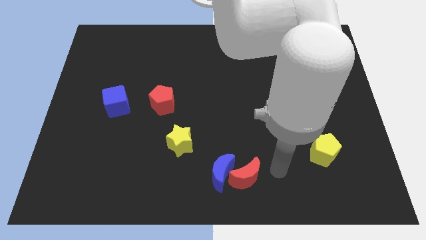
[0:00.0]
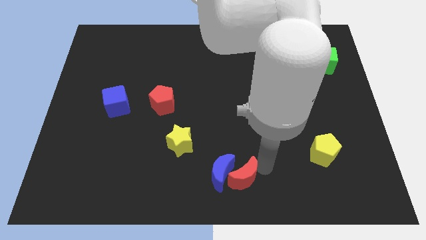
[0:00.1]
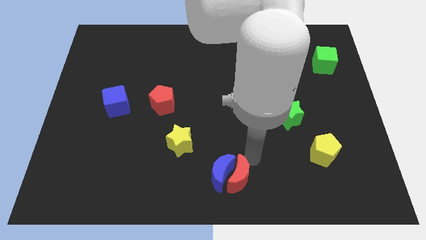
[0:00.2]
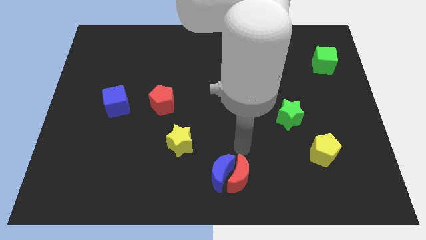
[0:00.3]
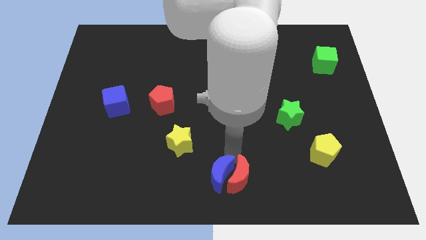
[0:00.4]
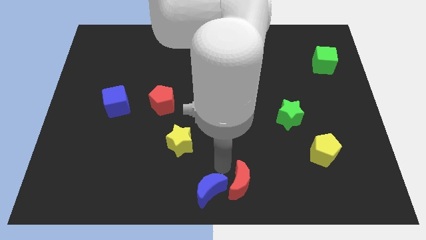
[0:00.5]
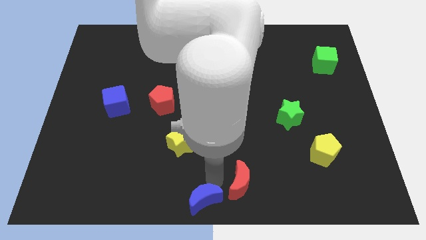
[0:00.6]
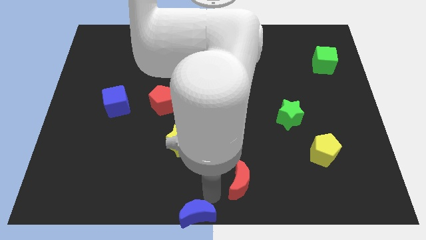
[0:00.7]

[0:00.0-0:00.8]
move the red moon away from the blue moon

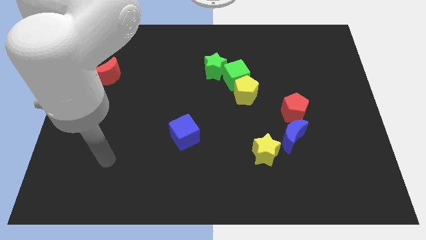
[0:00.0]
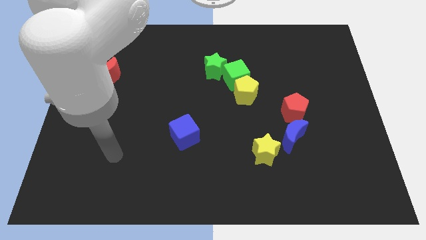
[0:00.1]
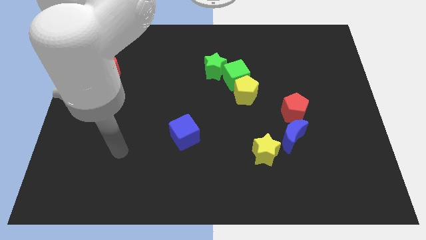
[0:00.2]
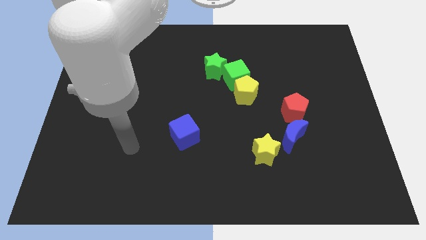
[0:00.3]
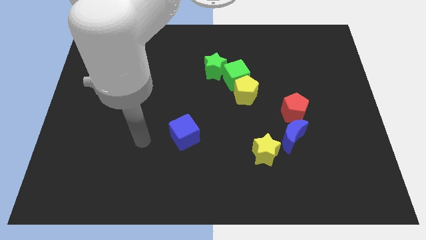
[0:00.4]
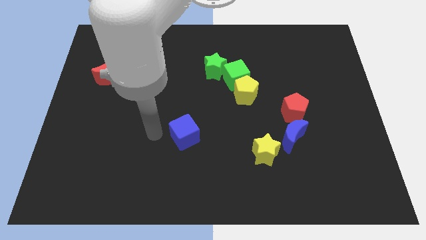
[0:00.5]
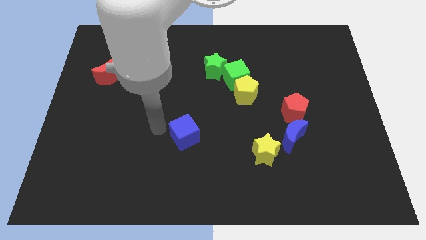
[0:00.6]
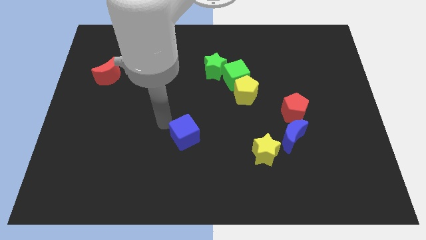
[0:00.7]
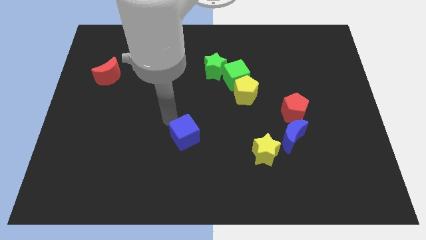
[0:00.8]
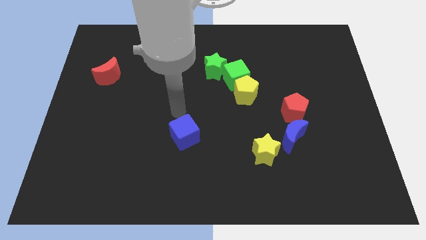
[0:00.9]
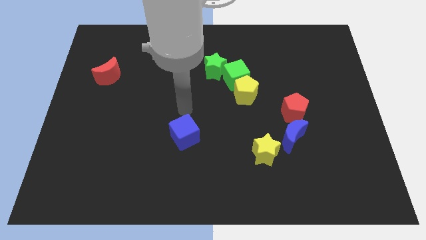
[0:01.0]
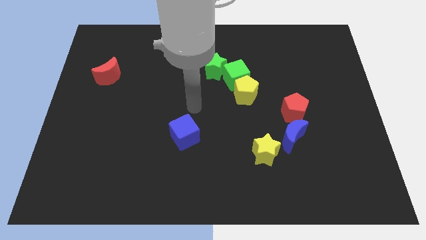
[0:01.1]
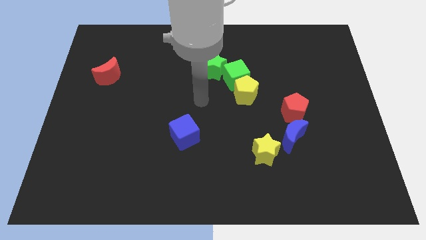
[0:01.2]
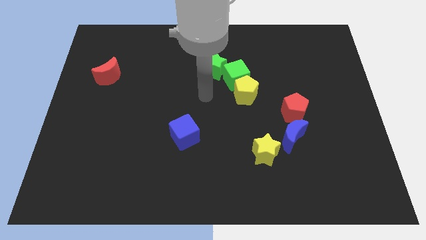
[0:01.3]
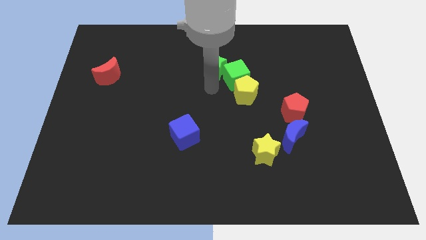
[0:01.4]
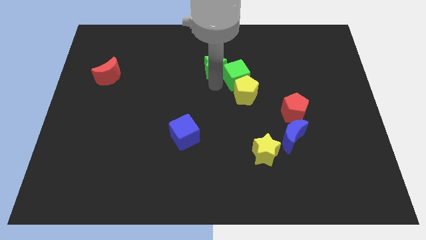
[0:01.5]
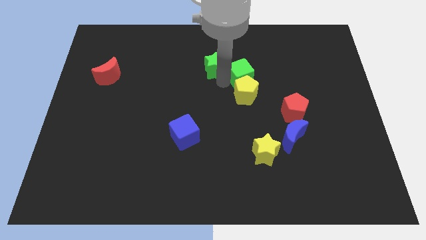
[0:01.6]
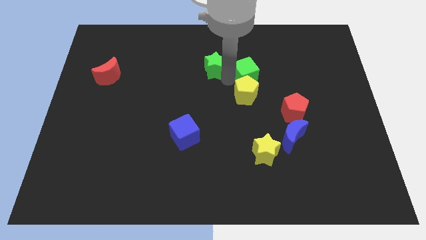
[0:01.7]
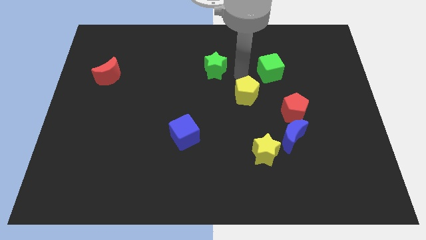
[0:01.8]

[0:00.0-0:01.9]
move the yellow pentagon away from the green cube

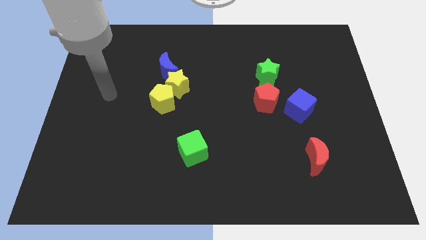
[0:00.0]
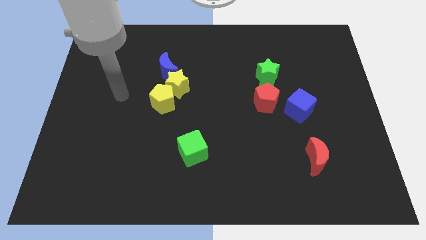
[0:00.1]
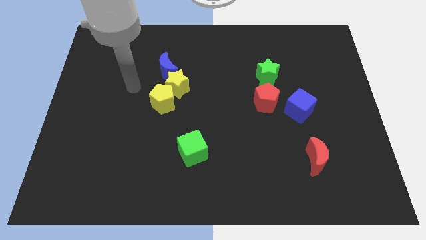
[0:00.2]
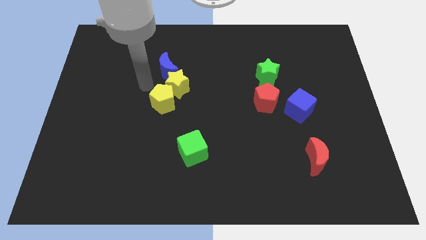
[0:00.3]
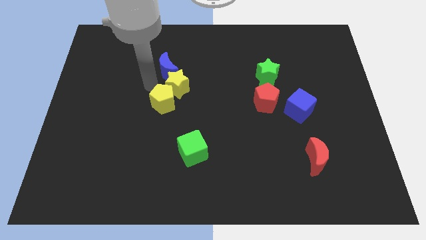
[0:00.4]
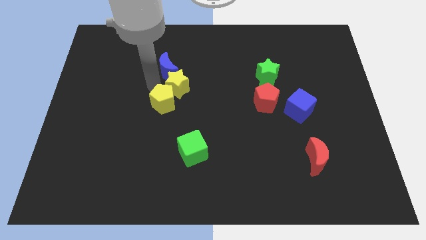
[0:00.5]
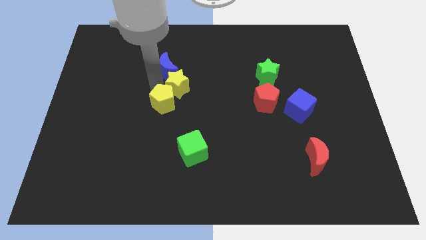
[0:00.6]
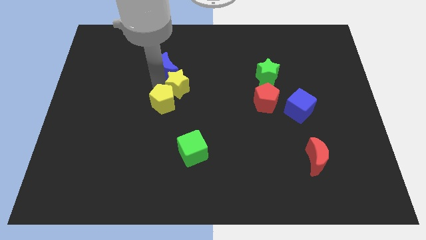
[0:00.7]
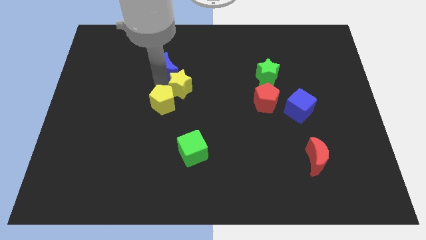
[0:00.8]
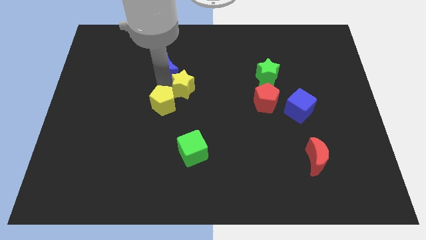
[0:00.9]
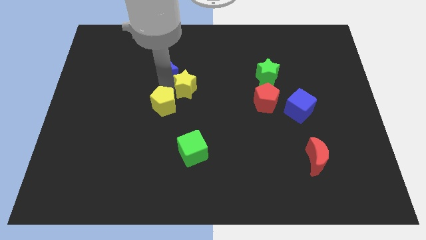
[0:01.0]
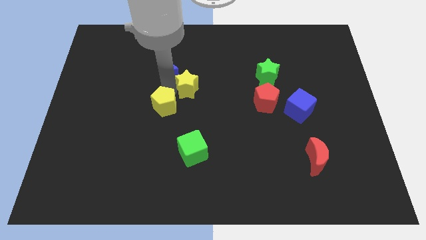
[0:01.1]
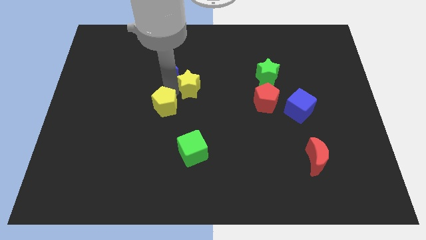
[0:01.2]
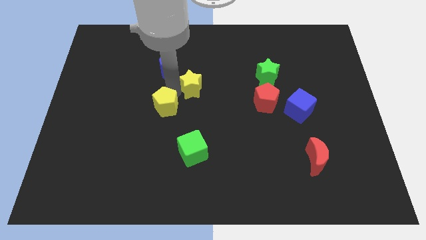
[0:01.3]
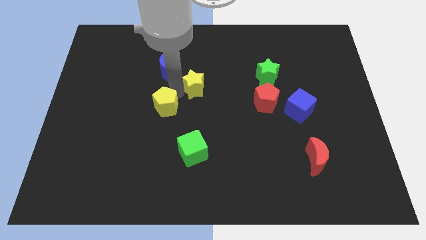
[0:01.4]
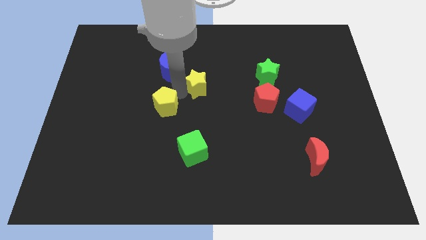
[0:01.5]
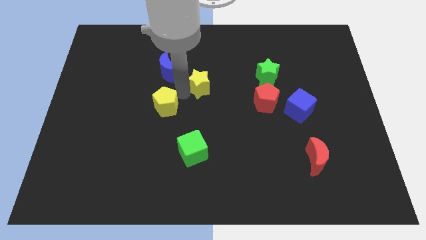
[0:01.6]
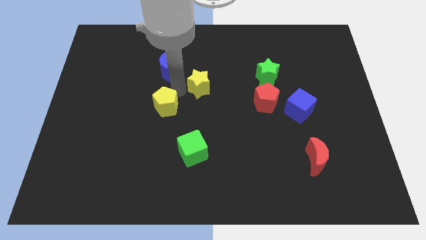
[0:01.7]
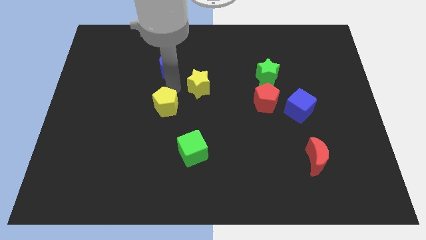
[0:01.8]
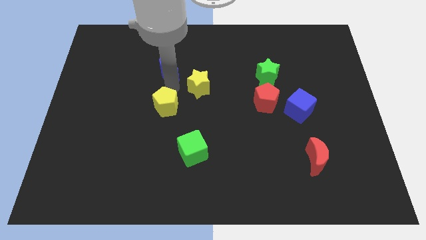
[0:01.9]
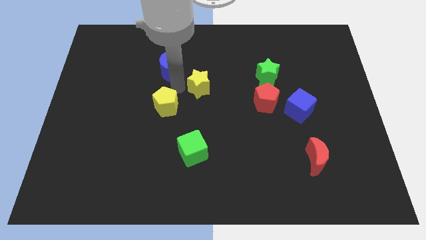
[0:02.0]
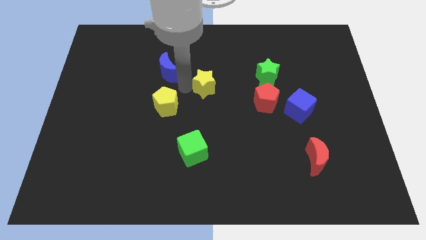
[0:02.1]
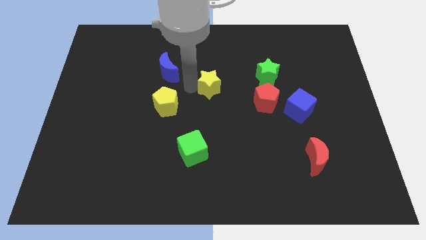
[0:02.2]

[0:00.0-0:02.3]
separate the yellow star from the yellow pentagon and blue moon

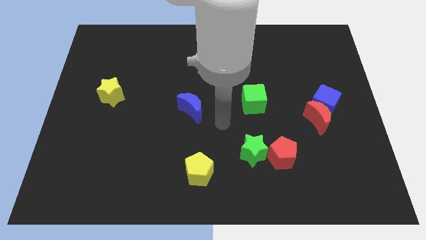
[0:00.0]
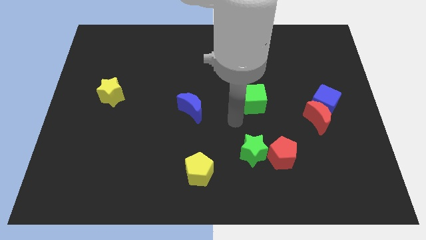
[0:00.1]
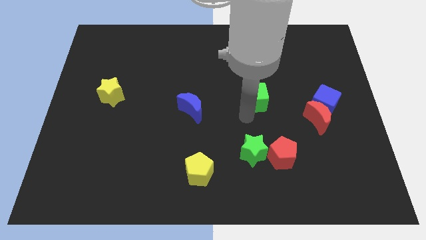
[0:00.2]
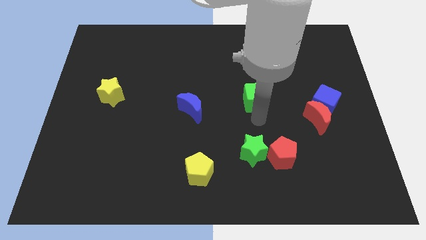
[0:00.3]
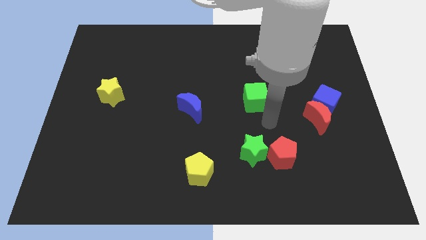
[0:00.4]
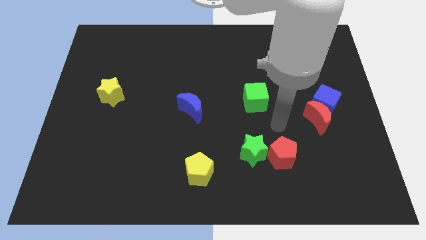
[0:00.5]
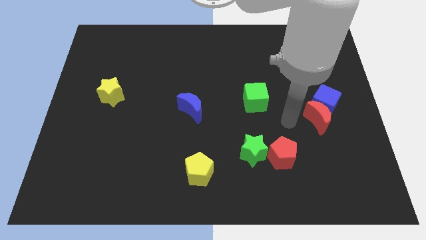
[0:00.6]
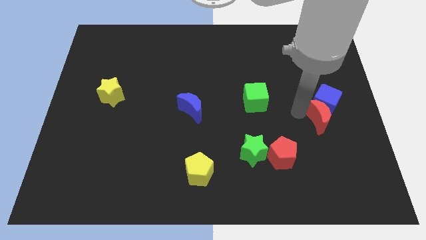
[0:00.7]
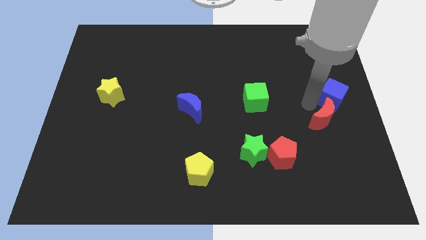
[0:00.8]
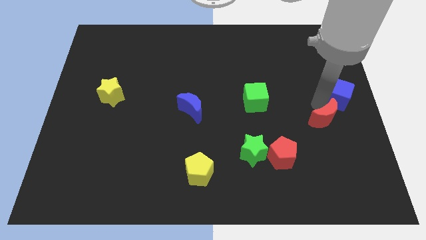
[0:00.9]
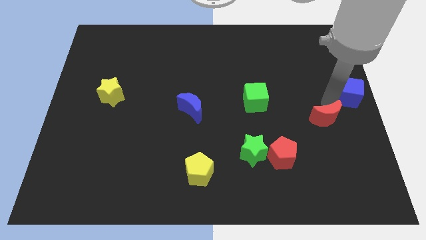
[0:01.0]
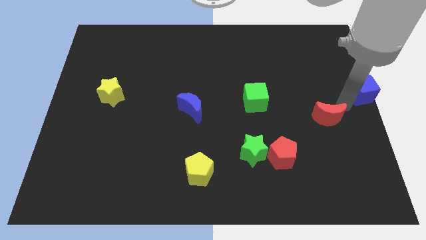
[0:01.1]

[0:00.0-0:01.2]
move the red moon away from the blue cube

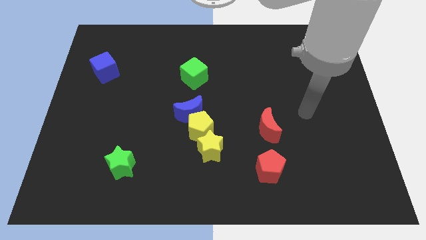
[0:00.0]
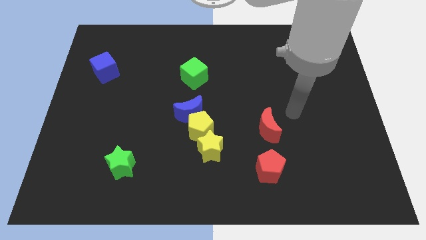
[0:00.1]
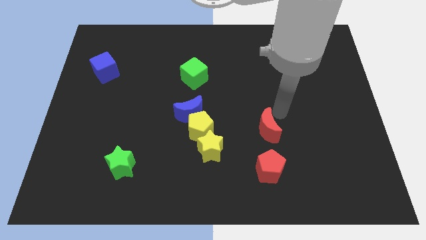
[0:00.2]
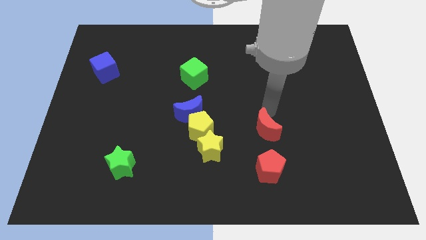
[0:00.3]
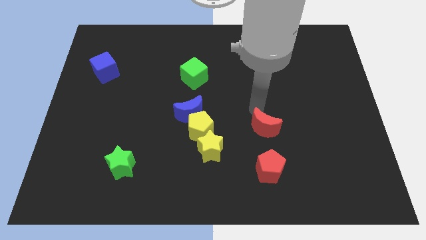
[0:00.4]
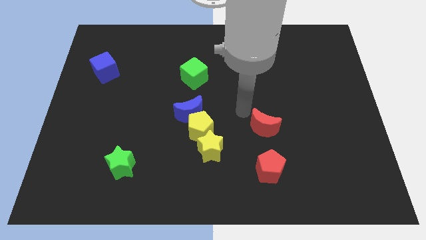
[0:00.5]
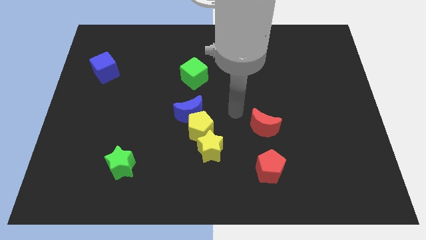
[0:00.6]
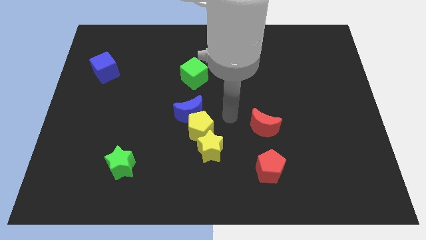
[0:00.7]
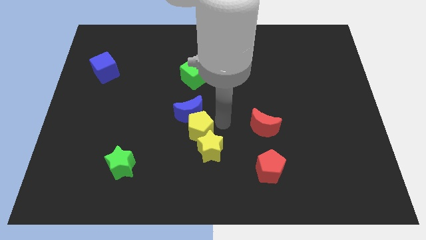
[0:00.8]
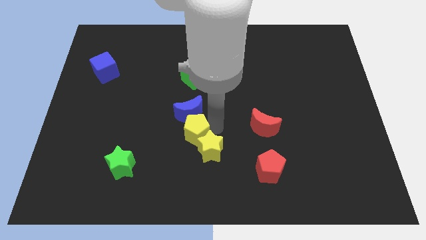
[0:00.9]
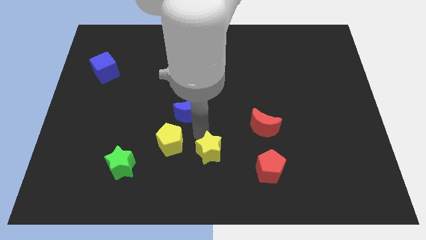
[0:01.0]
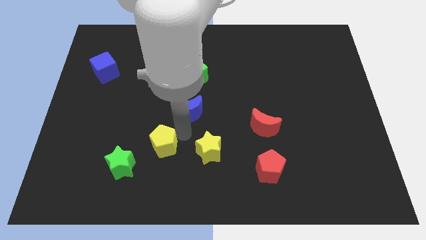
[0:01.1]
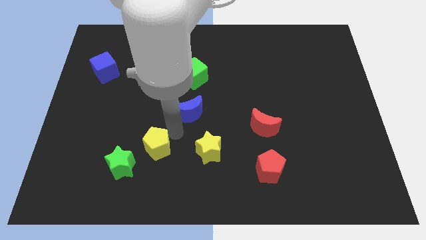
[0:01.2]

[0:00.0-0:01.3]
separate the blue moon from the yellow pentagon

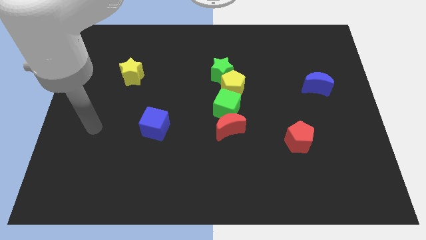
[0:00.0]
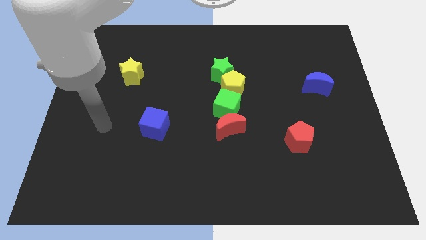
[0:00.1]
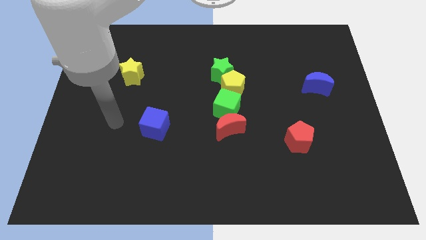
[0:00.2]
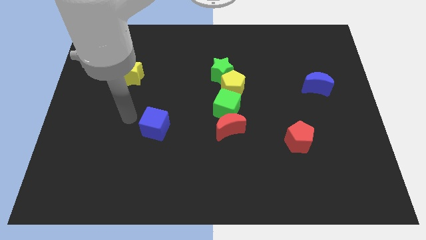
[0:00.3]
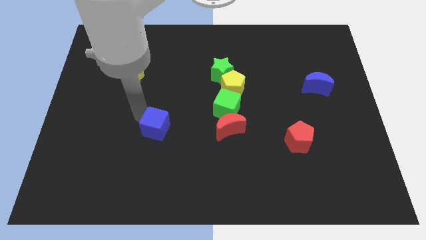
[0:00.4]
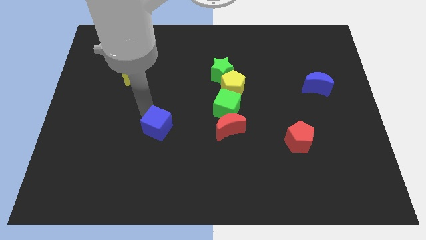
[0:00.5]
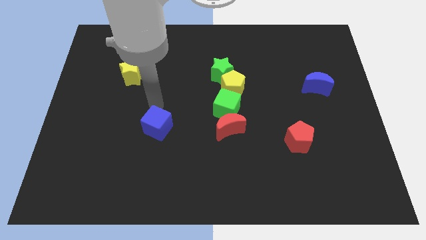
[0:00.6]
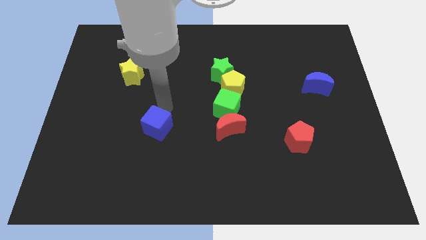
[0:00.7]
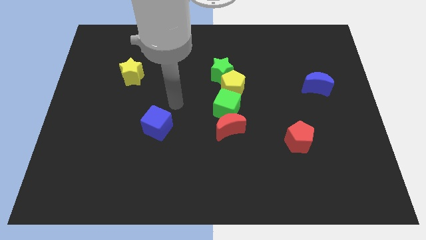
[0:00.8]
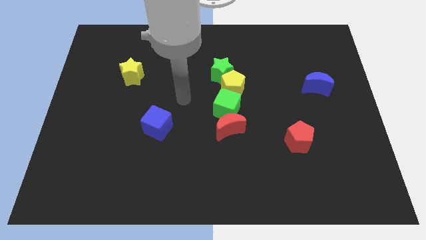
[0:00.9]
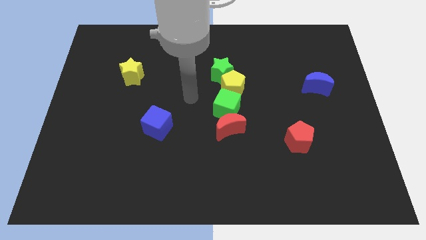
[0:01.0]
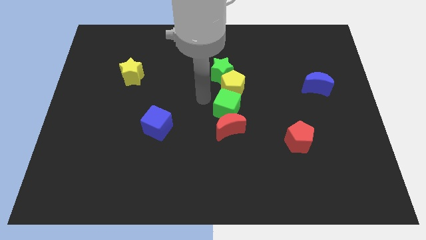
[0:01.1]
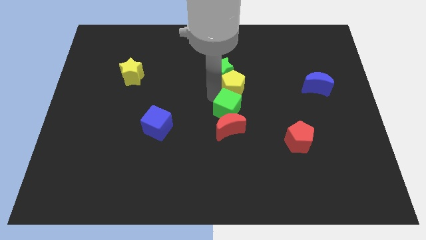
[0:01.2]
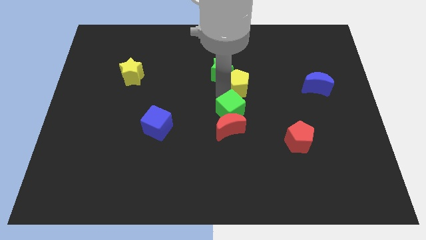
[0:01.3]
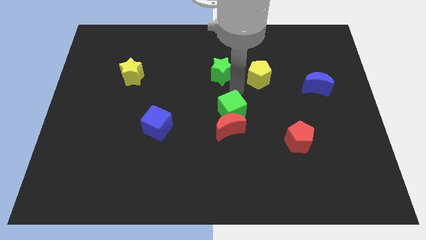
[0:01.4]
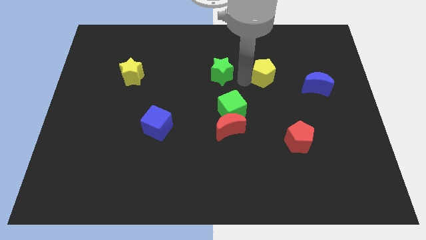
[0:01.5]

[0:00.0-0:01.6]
pull the green star apart from the yellow pentagon

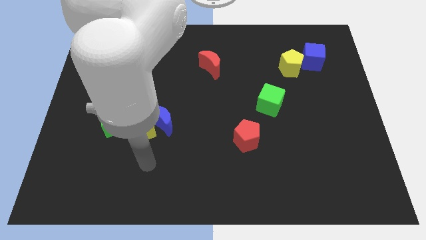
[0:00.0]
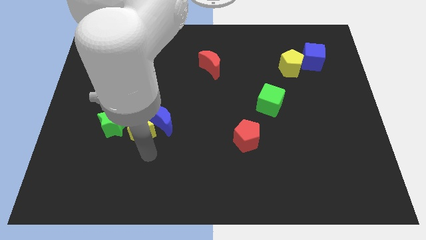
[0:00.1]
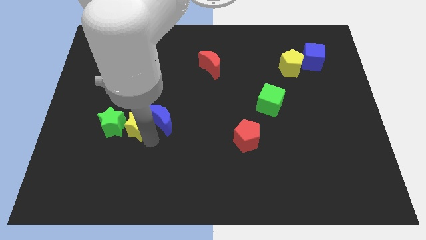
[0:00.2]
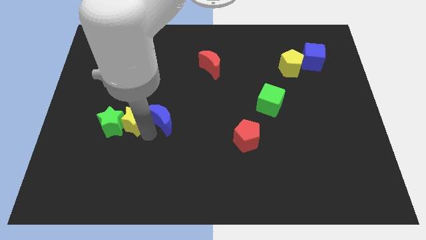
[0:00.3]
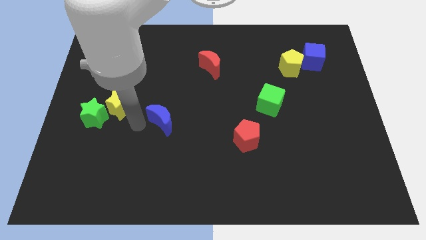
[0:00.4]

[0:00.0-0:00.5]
move the blue moon away from the yellow star
